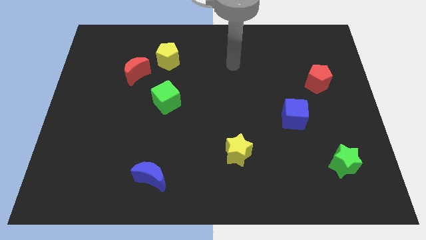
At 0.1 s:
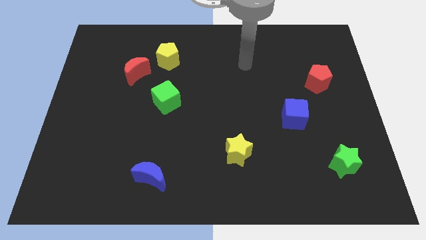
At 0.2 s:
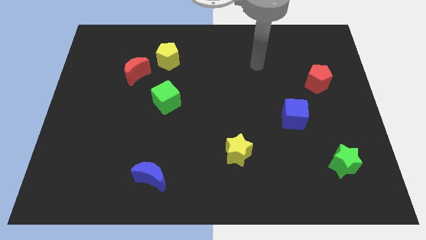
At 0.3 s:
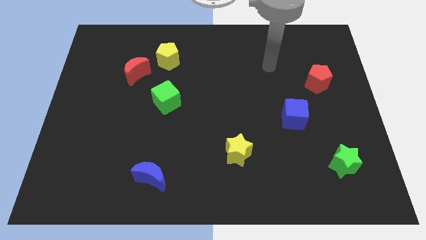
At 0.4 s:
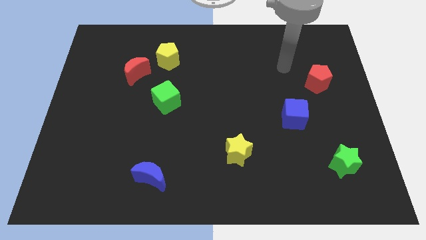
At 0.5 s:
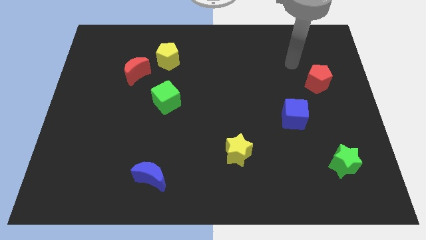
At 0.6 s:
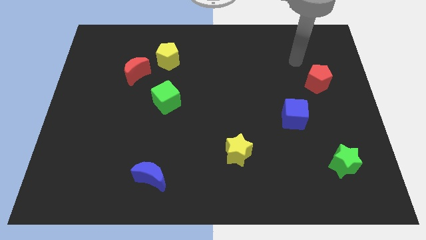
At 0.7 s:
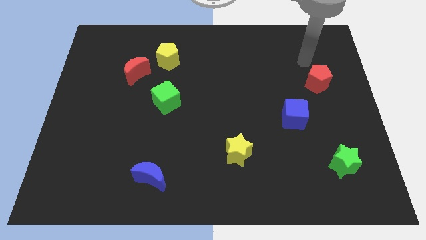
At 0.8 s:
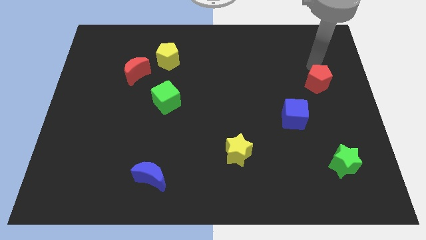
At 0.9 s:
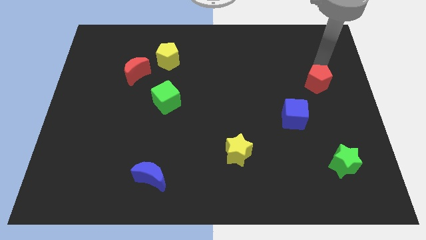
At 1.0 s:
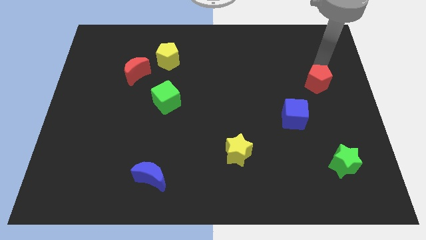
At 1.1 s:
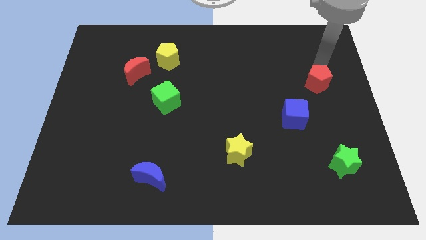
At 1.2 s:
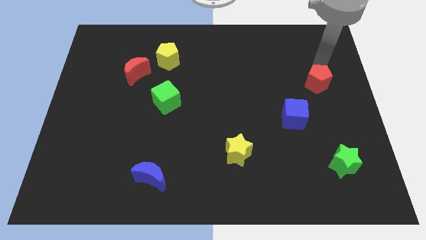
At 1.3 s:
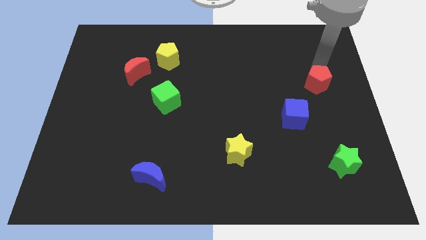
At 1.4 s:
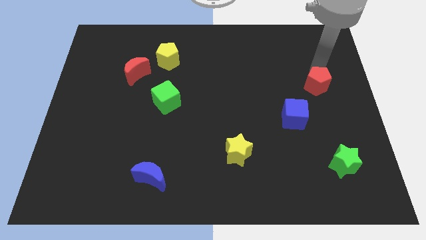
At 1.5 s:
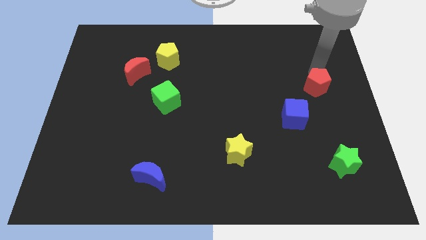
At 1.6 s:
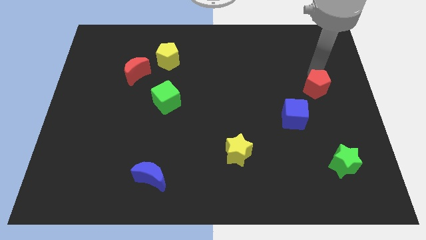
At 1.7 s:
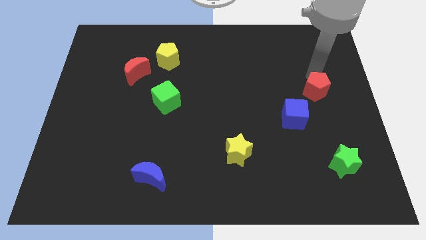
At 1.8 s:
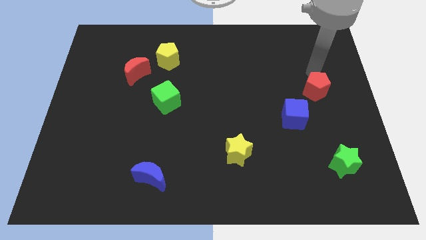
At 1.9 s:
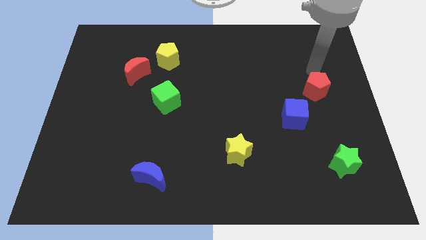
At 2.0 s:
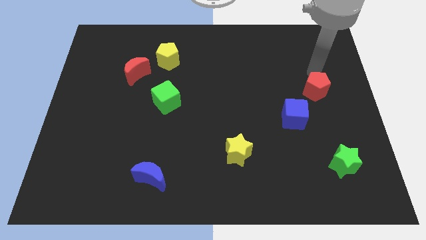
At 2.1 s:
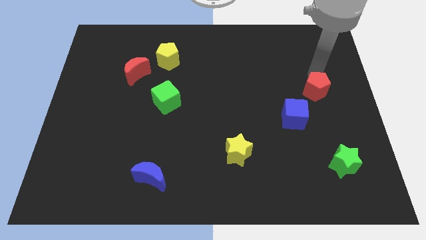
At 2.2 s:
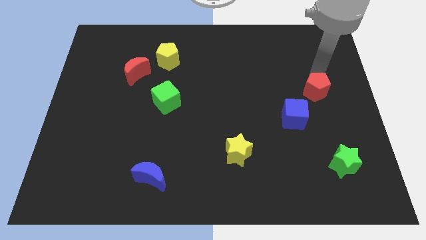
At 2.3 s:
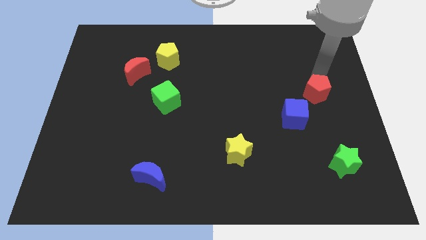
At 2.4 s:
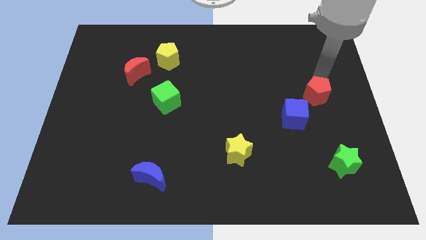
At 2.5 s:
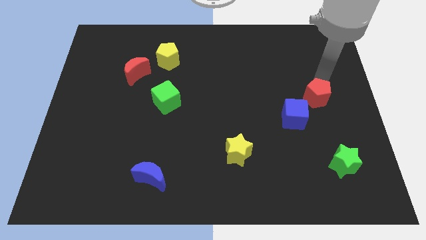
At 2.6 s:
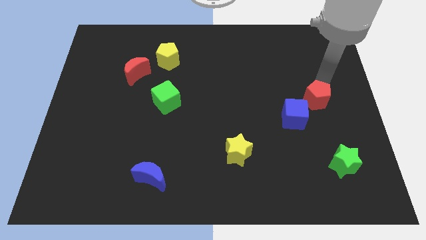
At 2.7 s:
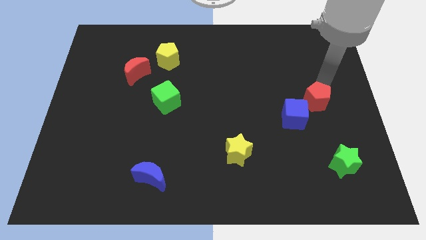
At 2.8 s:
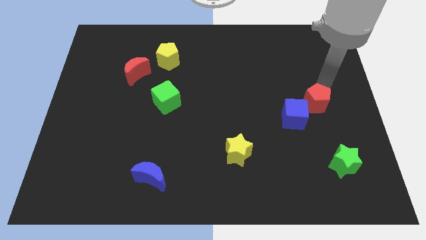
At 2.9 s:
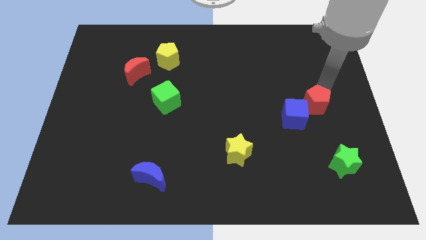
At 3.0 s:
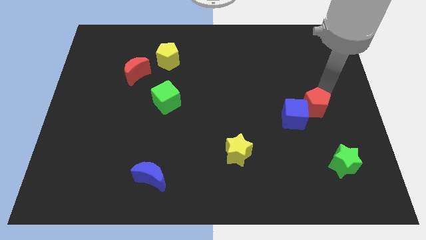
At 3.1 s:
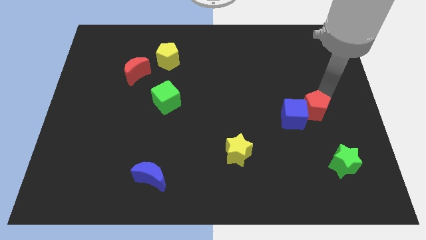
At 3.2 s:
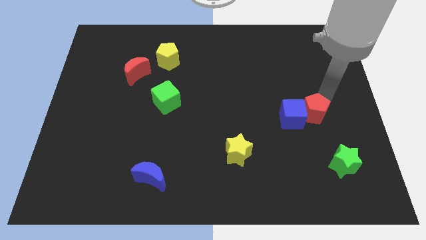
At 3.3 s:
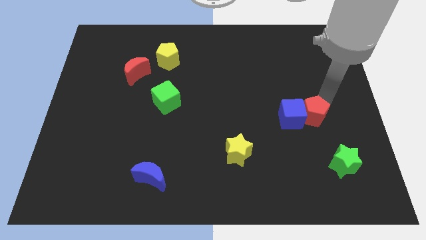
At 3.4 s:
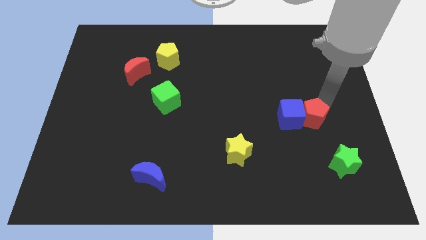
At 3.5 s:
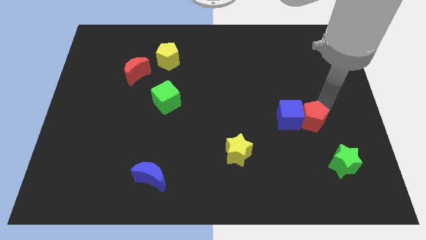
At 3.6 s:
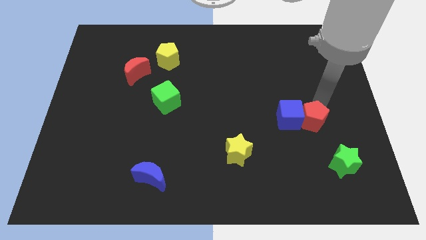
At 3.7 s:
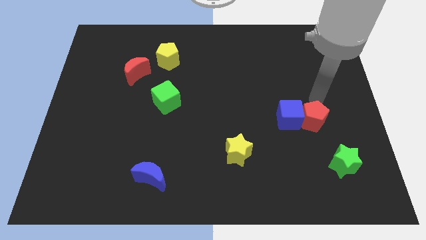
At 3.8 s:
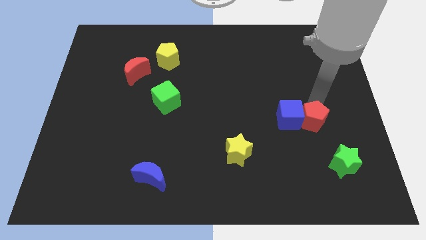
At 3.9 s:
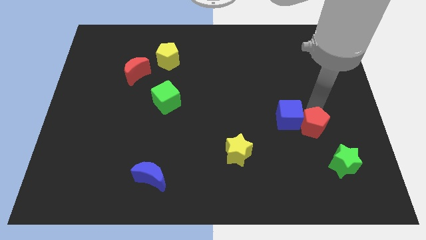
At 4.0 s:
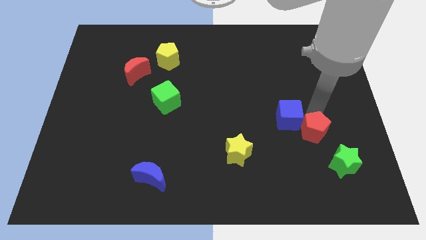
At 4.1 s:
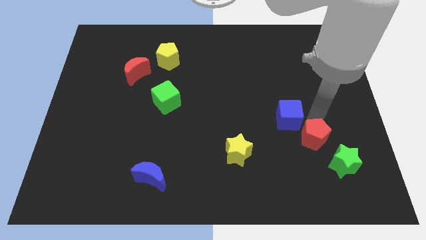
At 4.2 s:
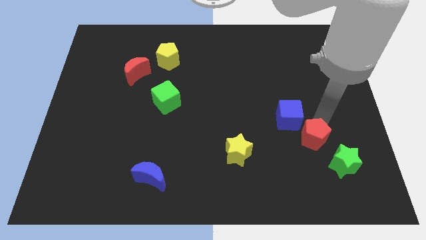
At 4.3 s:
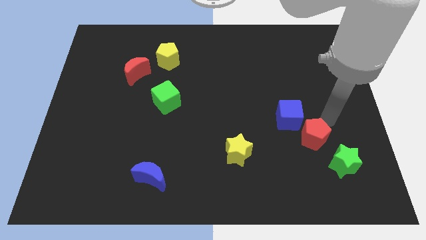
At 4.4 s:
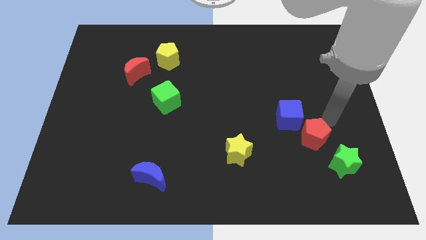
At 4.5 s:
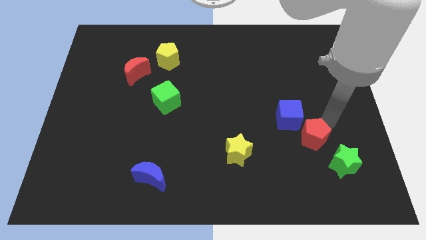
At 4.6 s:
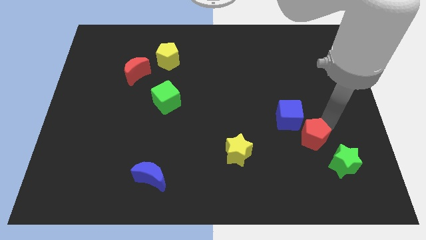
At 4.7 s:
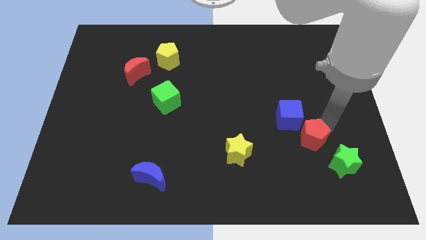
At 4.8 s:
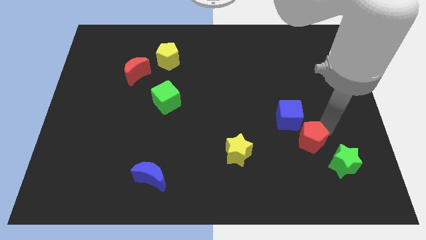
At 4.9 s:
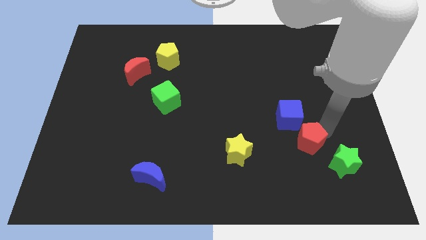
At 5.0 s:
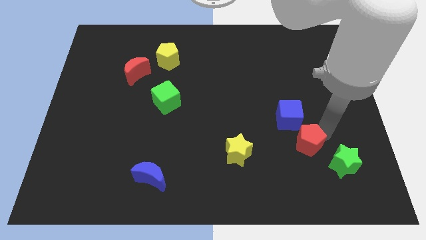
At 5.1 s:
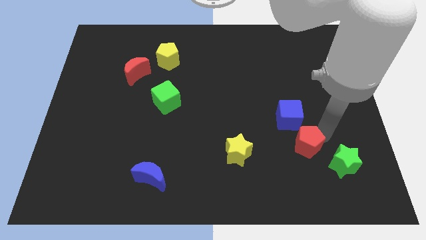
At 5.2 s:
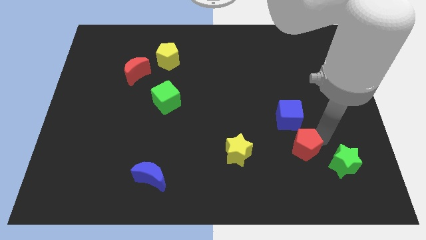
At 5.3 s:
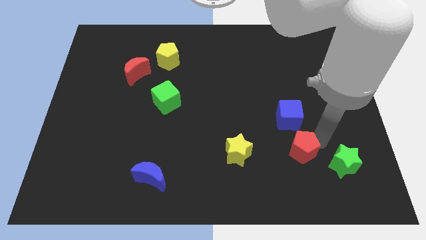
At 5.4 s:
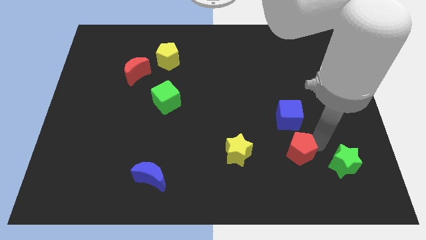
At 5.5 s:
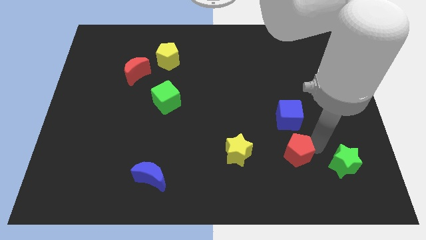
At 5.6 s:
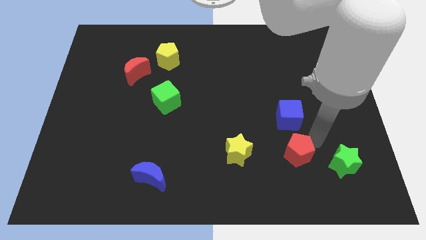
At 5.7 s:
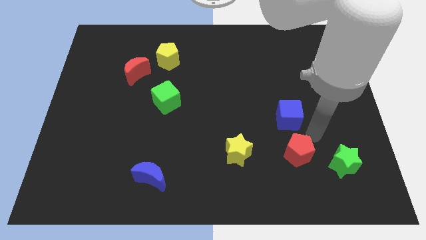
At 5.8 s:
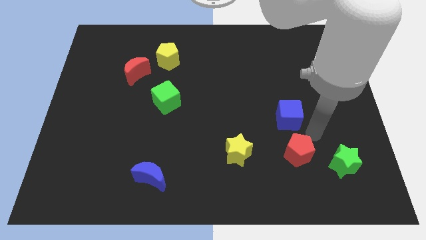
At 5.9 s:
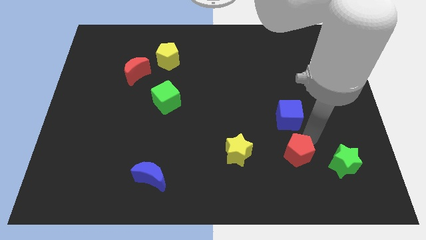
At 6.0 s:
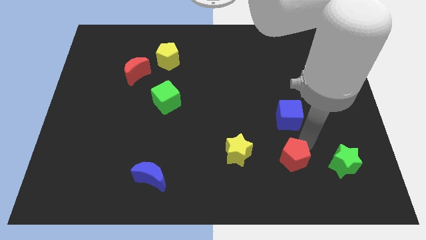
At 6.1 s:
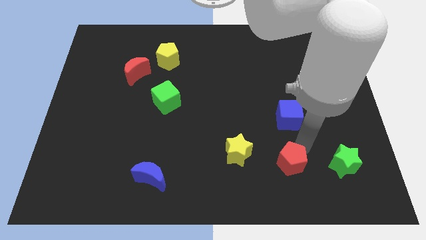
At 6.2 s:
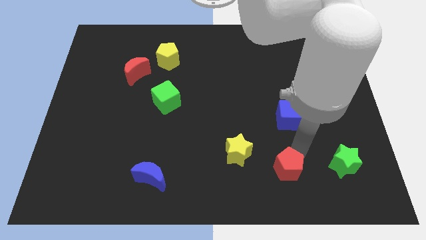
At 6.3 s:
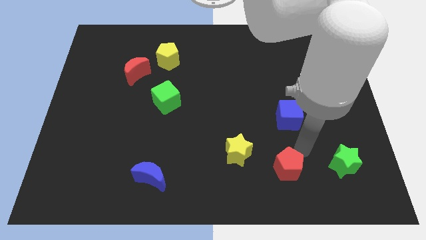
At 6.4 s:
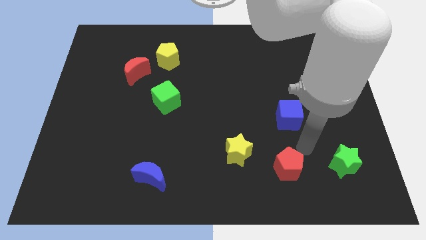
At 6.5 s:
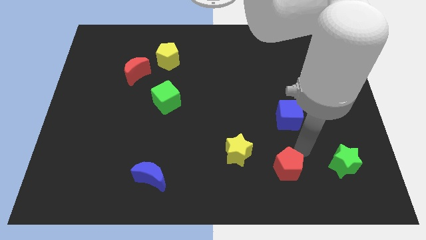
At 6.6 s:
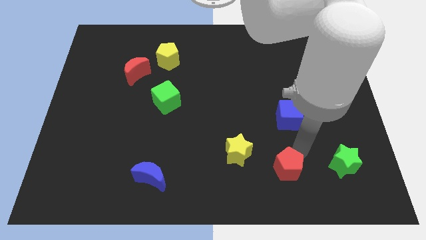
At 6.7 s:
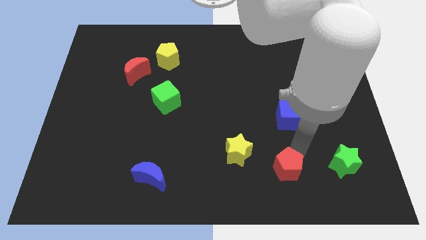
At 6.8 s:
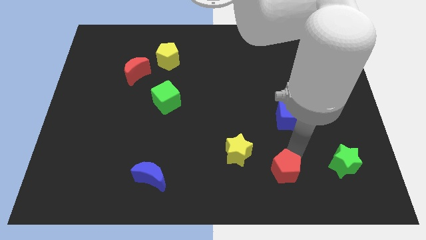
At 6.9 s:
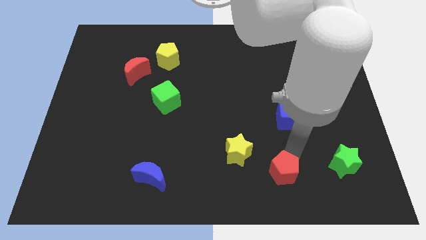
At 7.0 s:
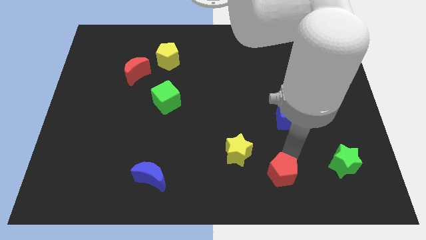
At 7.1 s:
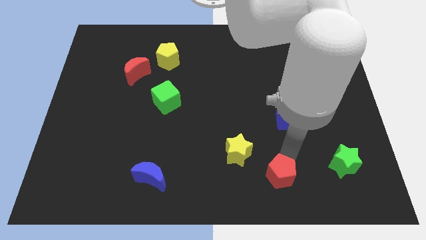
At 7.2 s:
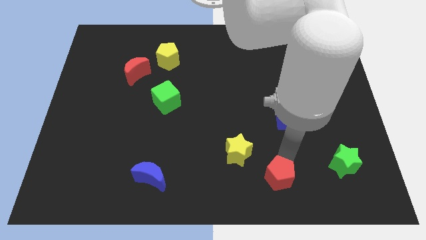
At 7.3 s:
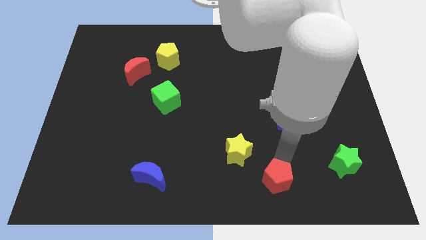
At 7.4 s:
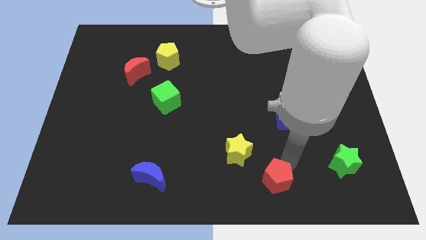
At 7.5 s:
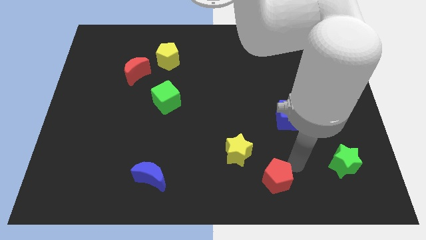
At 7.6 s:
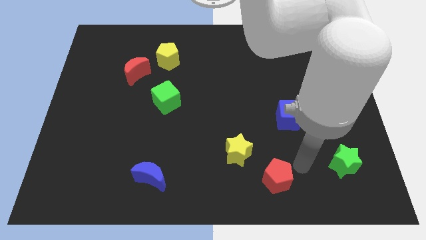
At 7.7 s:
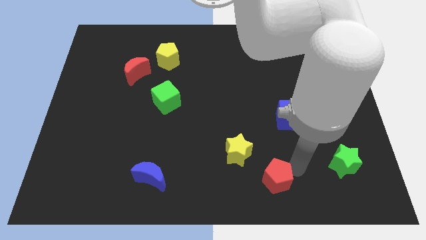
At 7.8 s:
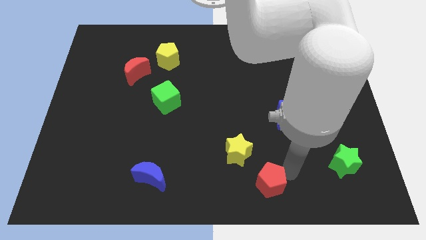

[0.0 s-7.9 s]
push the red pentagon to the bottom
